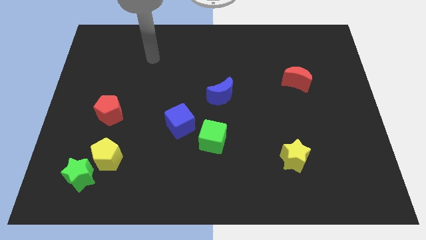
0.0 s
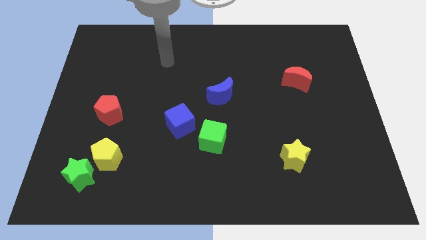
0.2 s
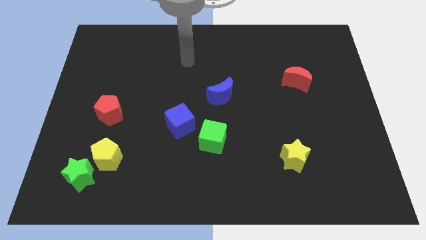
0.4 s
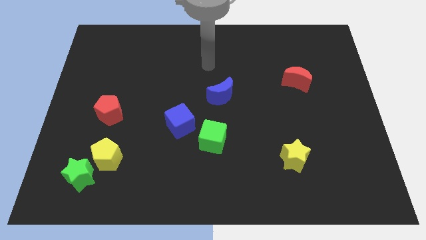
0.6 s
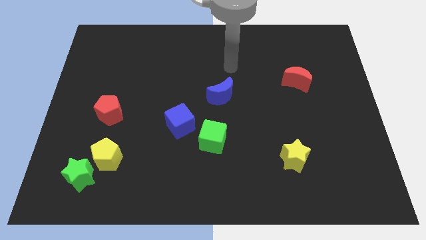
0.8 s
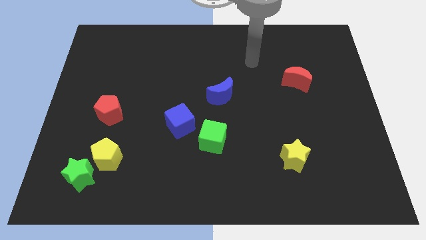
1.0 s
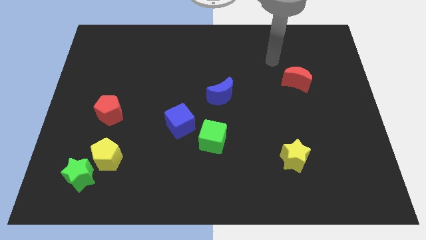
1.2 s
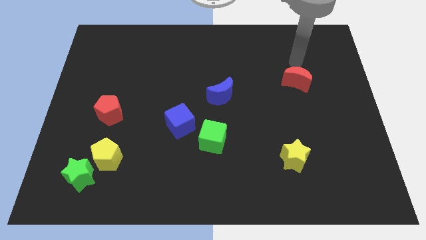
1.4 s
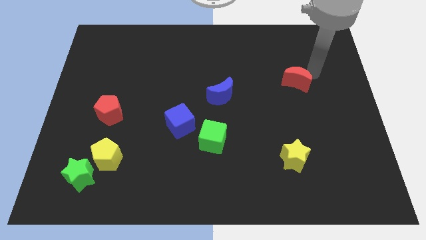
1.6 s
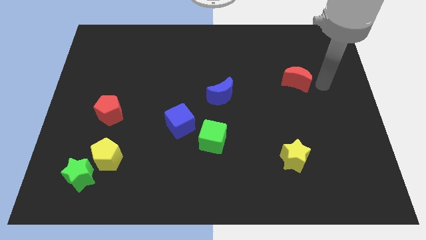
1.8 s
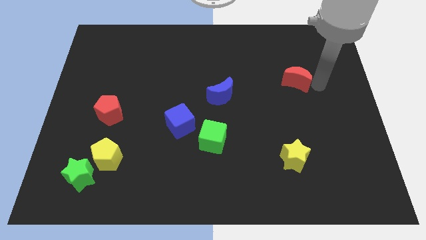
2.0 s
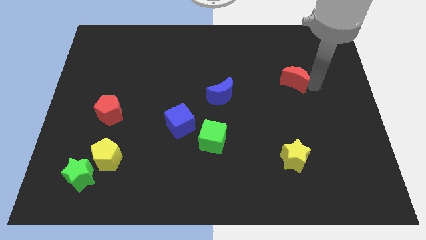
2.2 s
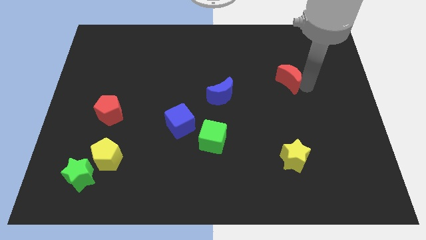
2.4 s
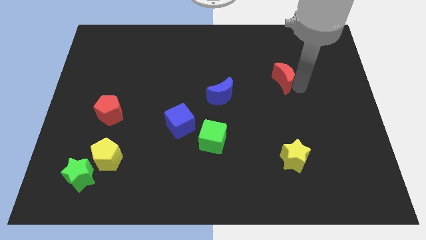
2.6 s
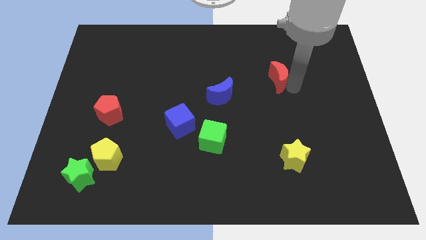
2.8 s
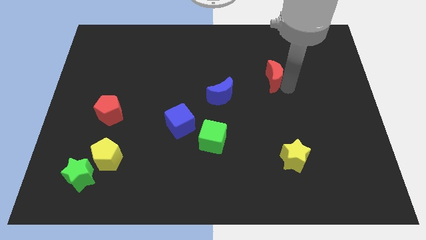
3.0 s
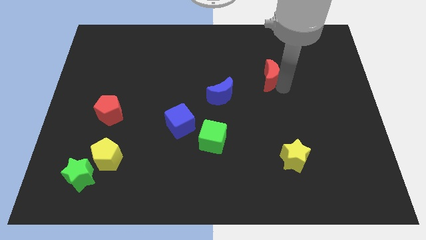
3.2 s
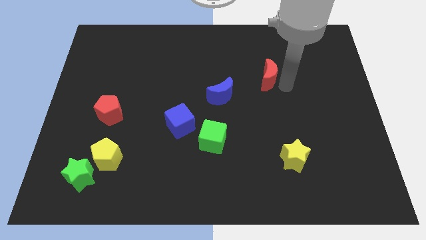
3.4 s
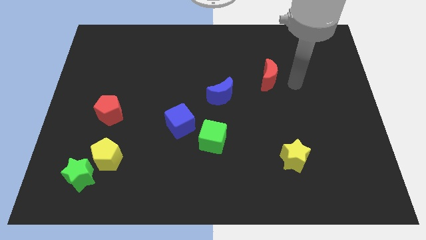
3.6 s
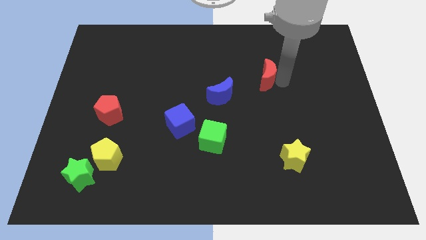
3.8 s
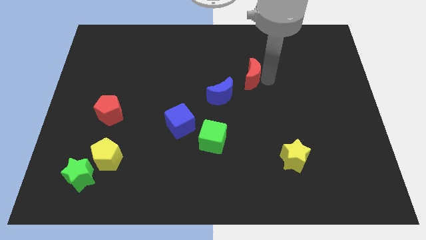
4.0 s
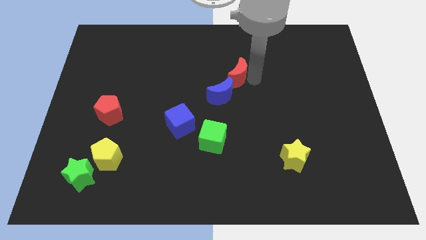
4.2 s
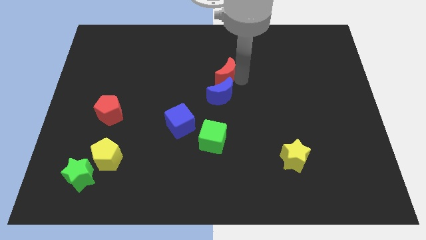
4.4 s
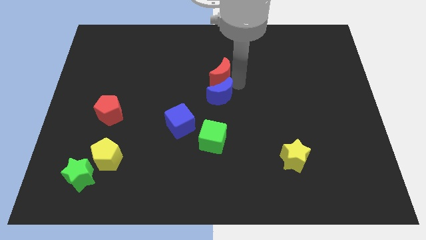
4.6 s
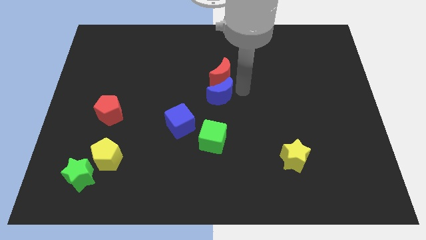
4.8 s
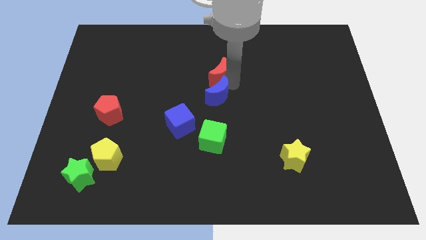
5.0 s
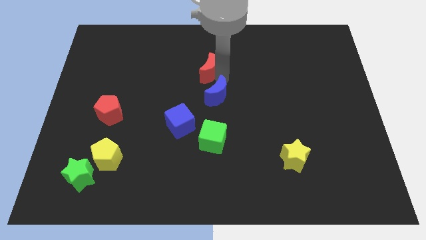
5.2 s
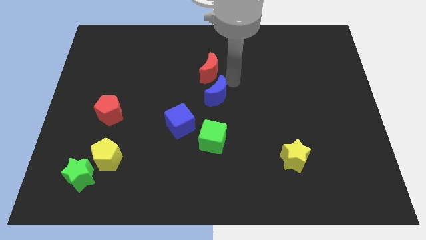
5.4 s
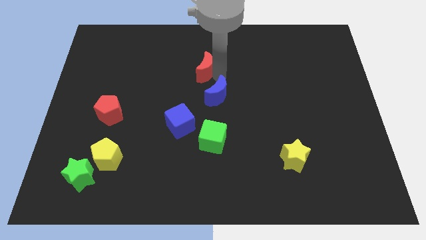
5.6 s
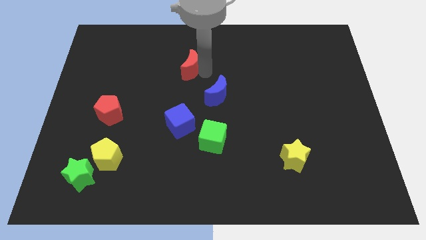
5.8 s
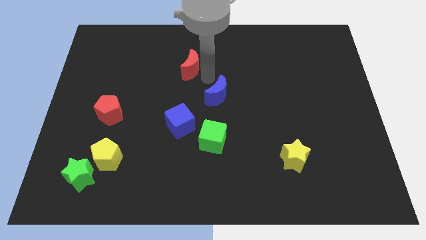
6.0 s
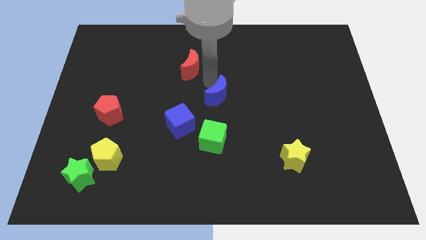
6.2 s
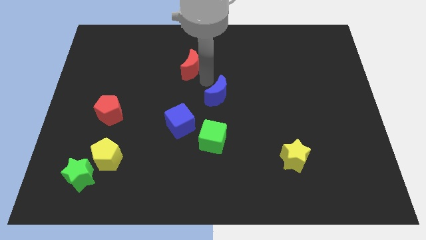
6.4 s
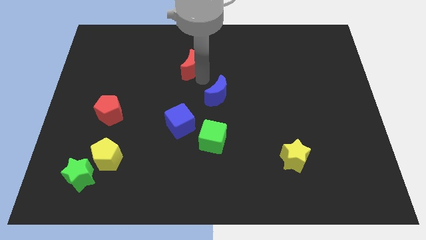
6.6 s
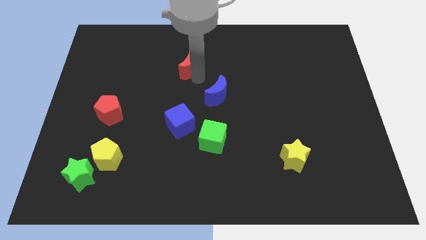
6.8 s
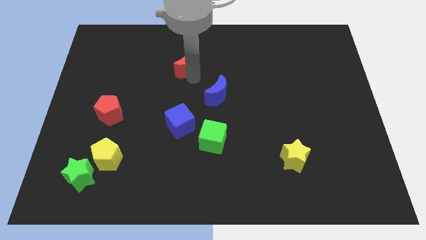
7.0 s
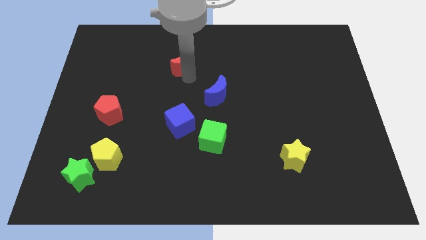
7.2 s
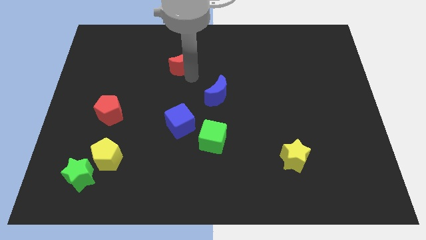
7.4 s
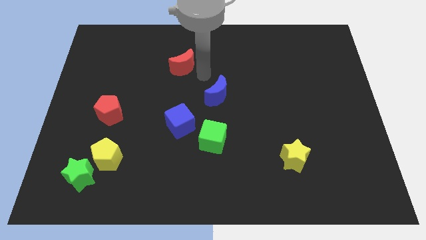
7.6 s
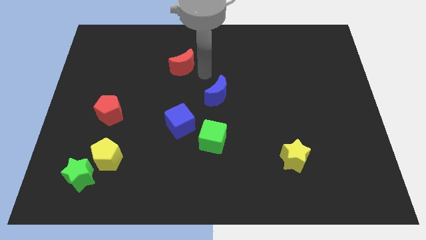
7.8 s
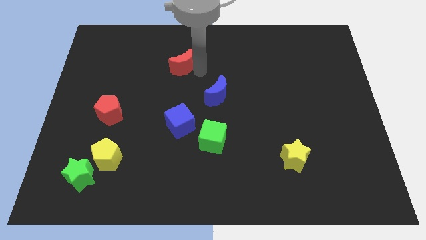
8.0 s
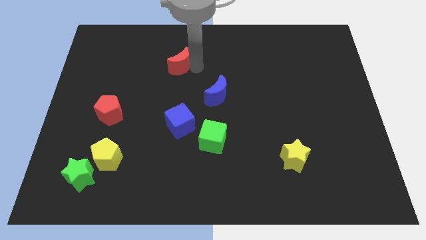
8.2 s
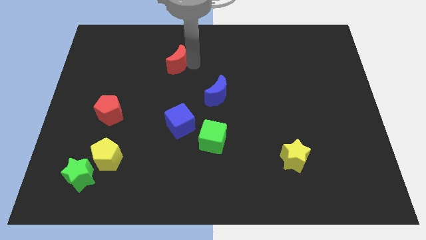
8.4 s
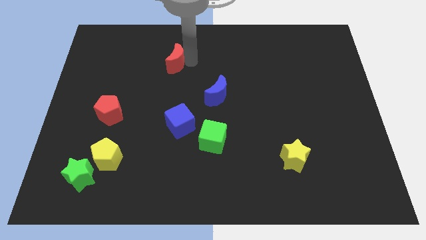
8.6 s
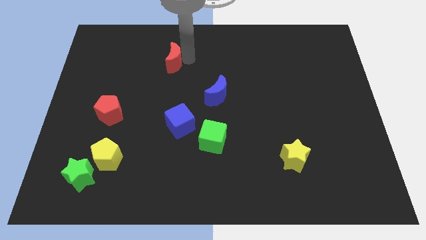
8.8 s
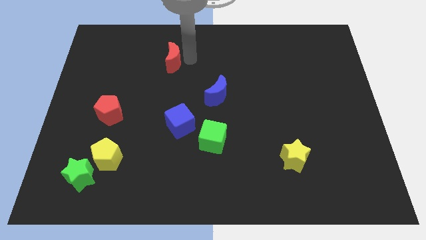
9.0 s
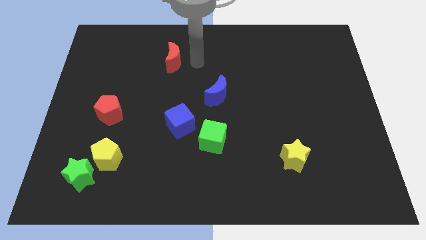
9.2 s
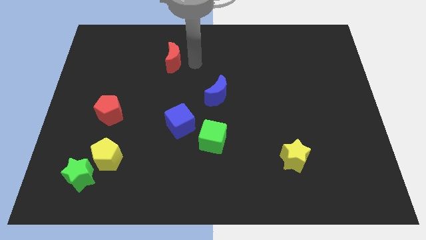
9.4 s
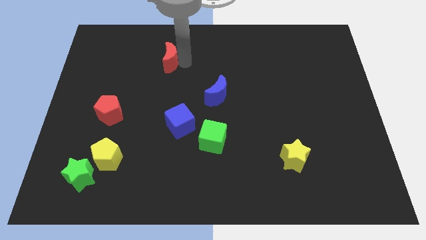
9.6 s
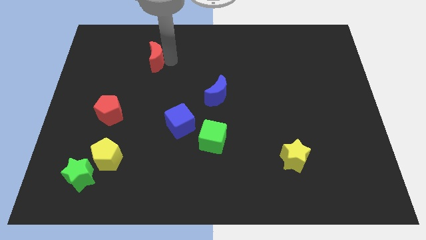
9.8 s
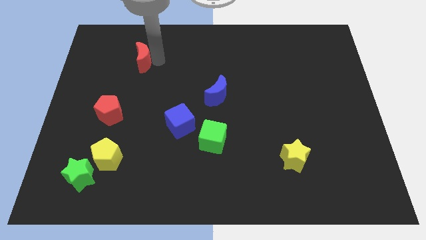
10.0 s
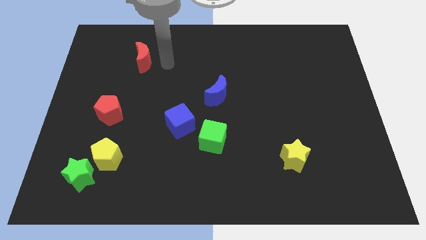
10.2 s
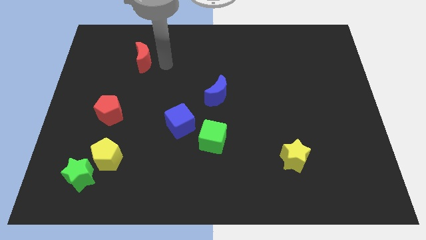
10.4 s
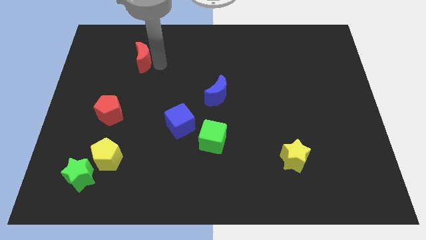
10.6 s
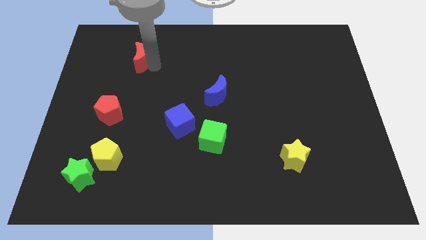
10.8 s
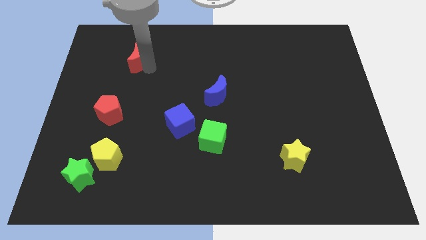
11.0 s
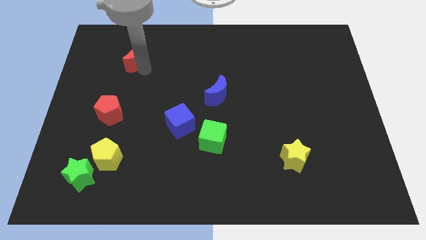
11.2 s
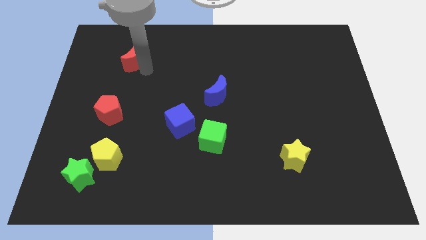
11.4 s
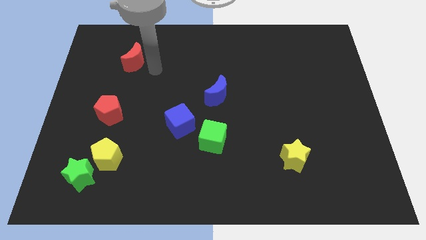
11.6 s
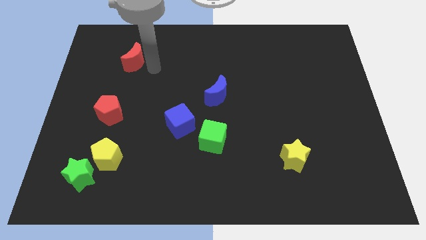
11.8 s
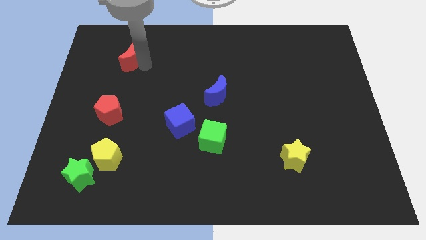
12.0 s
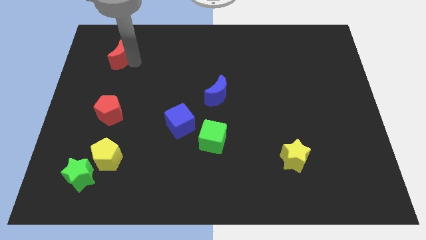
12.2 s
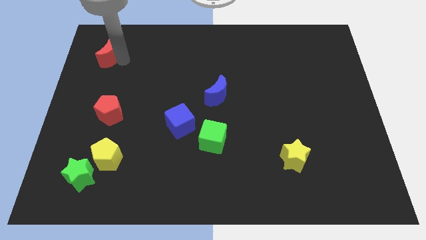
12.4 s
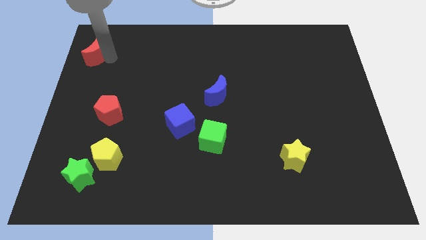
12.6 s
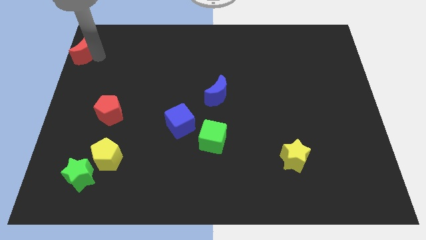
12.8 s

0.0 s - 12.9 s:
move the red moon to the top left corner
